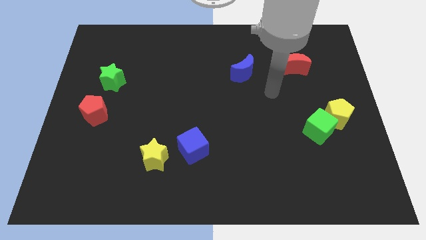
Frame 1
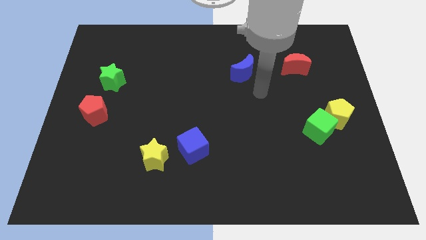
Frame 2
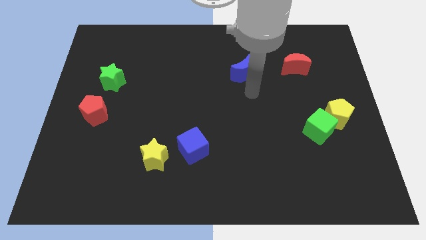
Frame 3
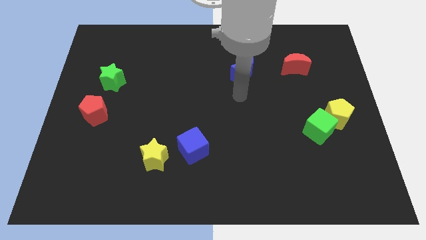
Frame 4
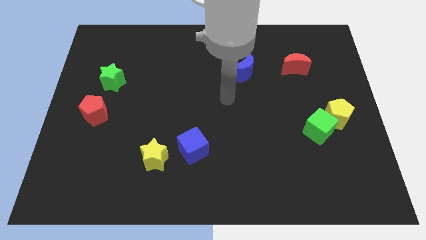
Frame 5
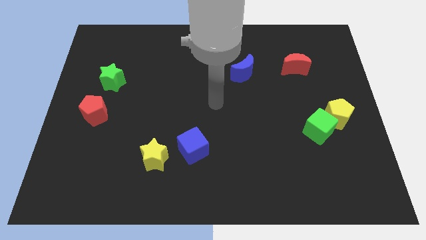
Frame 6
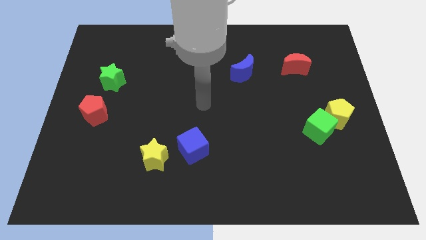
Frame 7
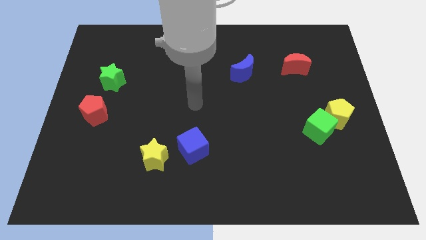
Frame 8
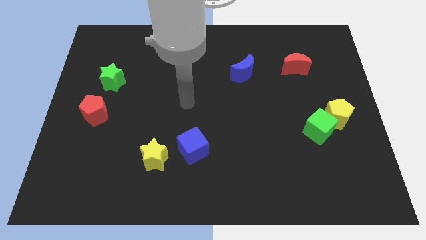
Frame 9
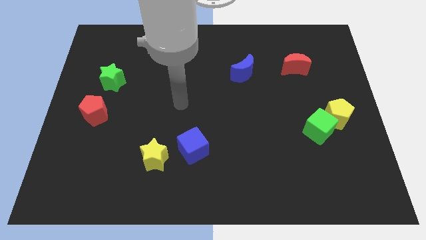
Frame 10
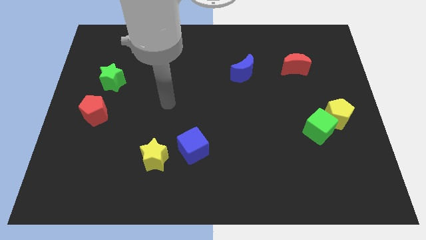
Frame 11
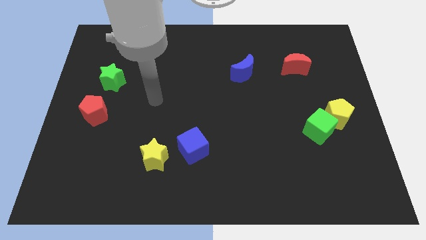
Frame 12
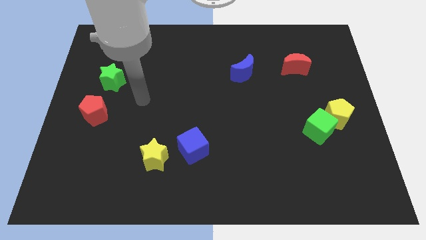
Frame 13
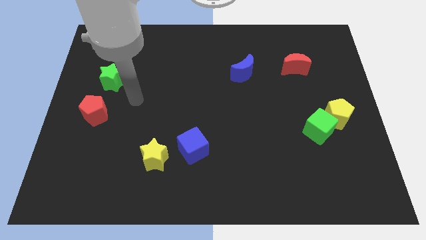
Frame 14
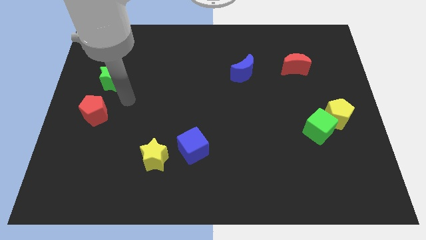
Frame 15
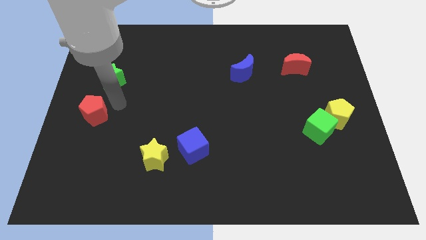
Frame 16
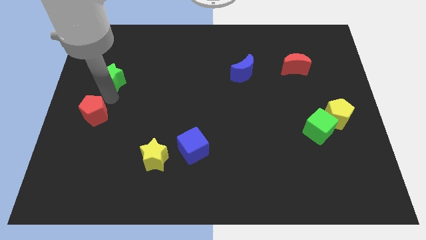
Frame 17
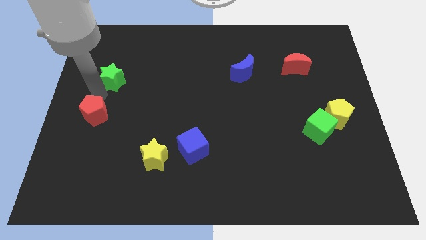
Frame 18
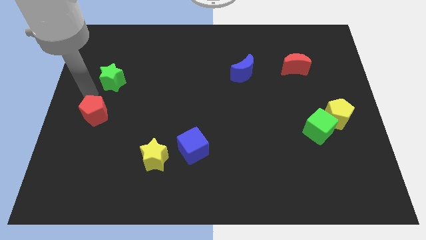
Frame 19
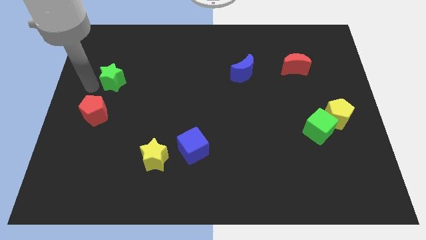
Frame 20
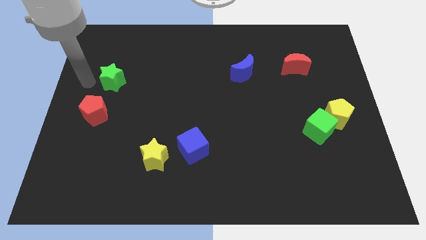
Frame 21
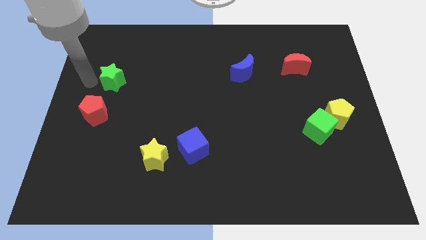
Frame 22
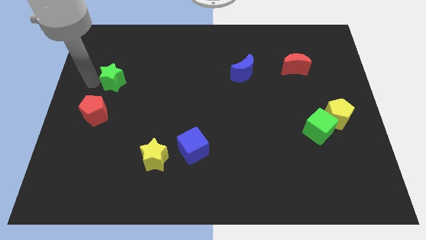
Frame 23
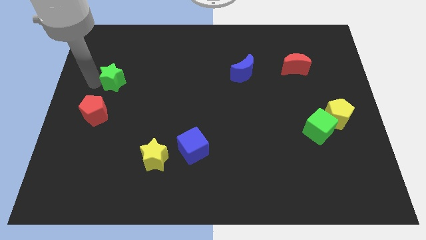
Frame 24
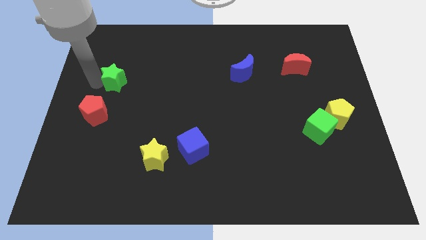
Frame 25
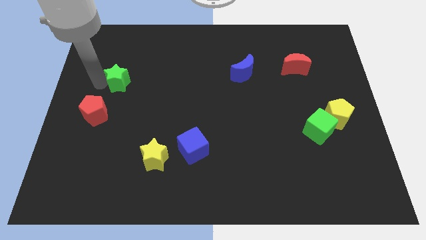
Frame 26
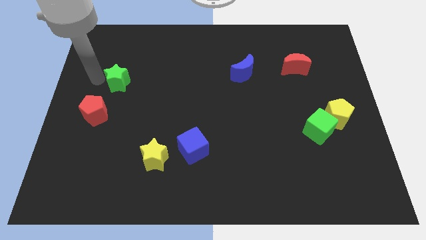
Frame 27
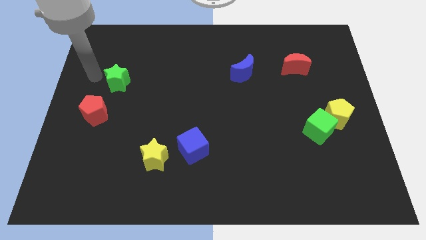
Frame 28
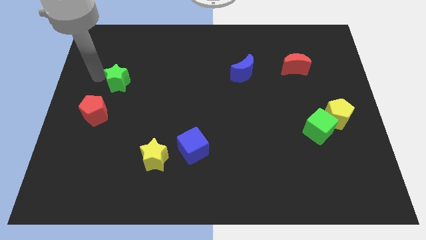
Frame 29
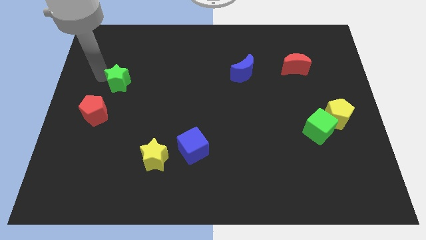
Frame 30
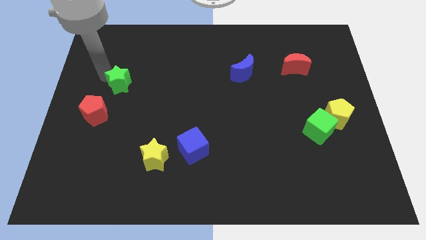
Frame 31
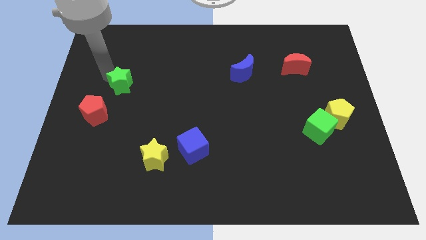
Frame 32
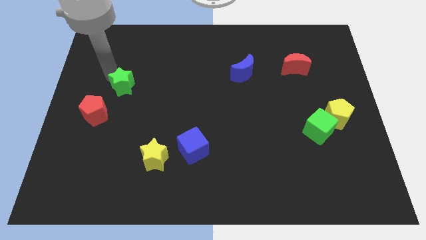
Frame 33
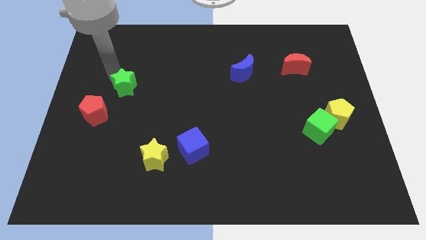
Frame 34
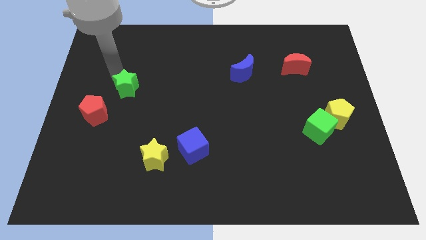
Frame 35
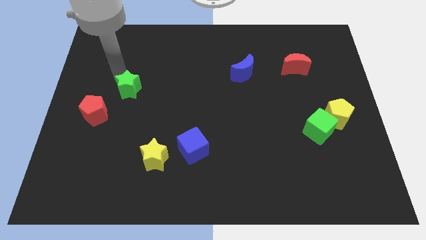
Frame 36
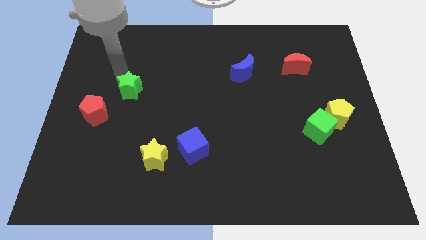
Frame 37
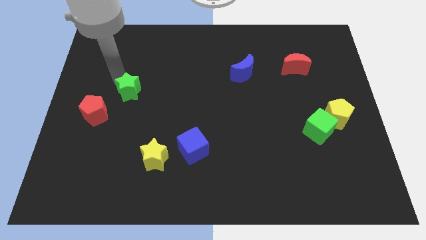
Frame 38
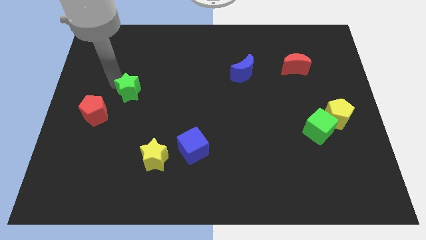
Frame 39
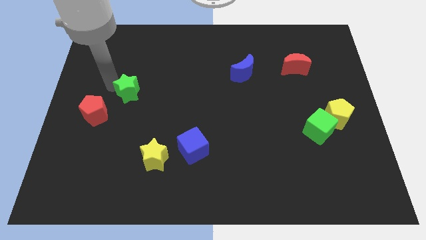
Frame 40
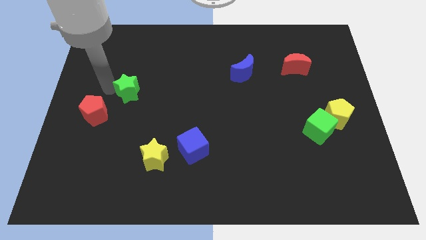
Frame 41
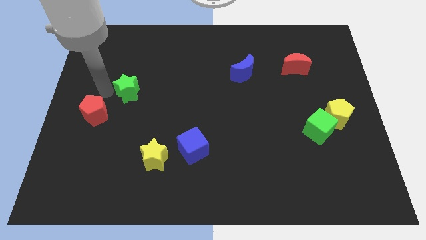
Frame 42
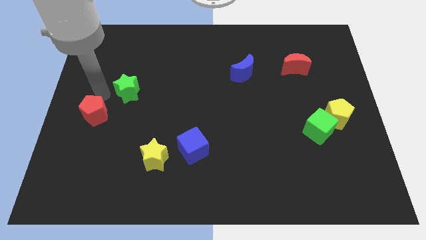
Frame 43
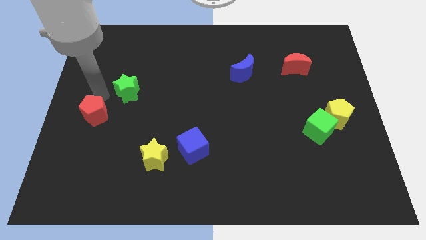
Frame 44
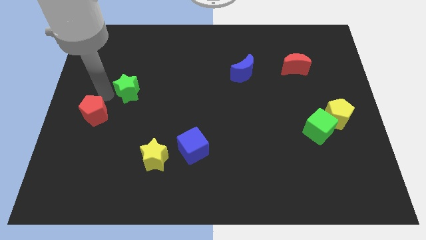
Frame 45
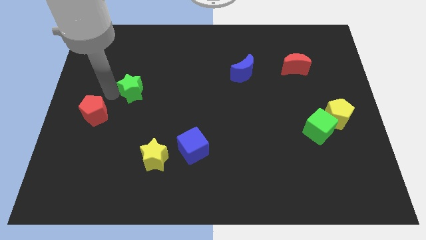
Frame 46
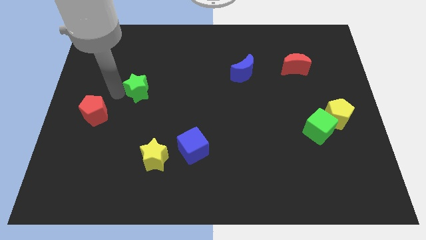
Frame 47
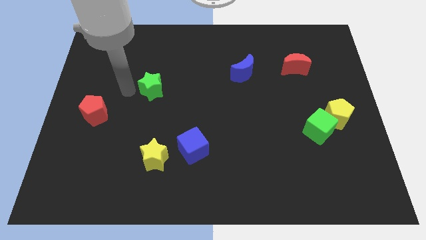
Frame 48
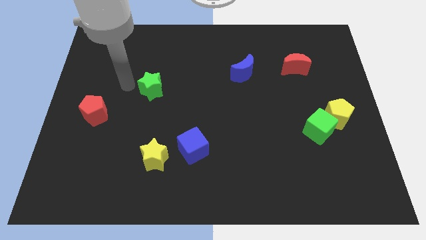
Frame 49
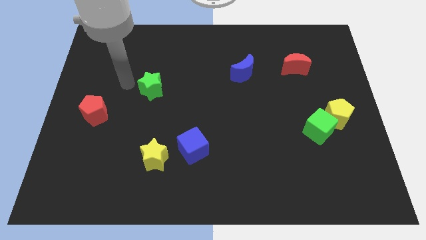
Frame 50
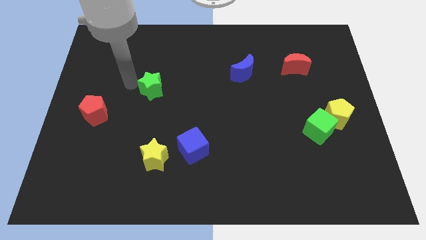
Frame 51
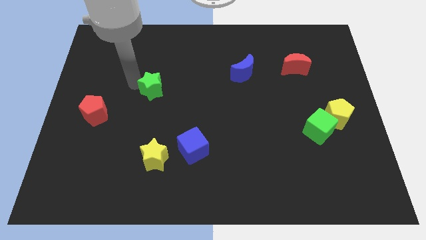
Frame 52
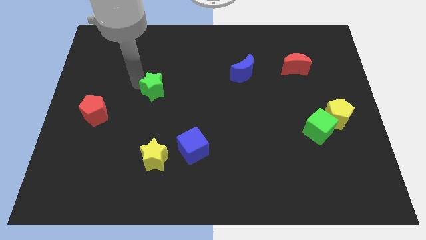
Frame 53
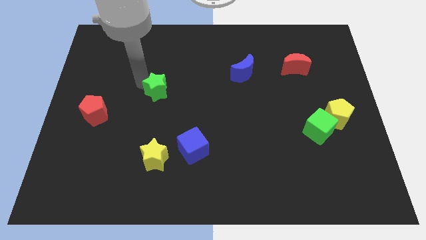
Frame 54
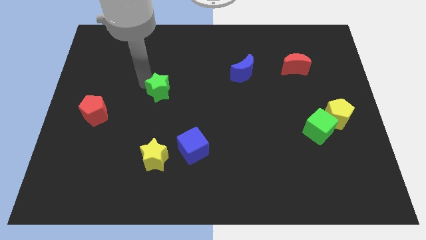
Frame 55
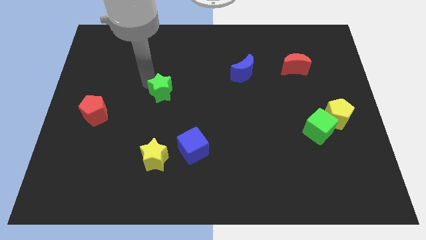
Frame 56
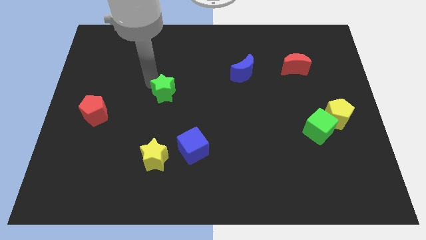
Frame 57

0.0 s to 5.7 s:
push the green star to the center of the board

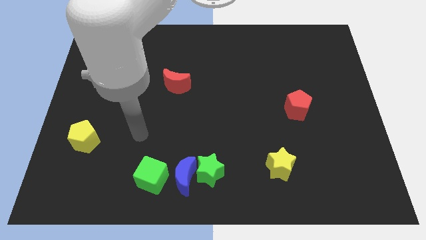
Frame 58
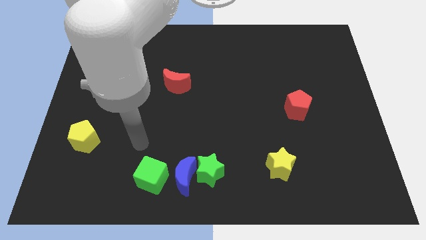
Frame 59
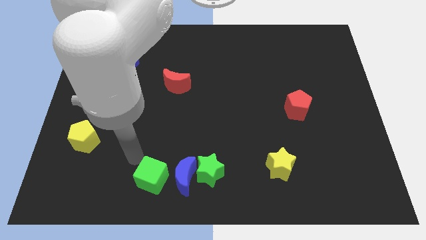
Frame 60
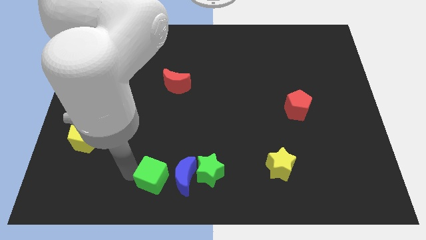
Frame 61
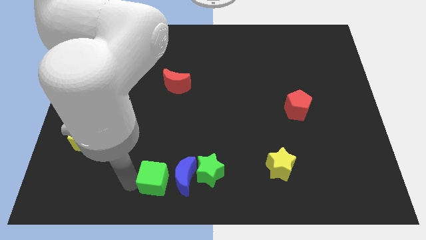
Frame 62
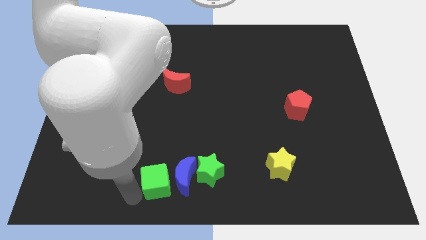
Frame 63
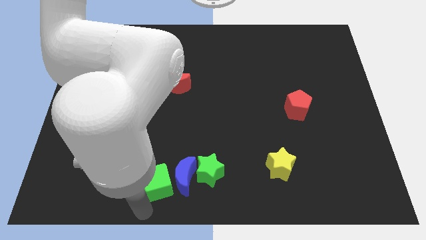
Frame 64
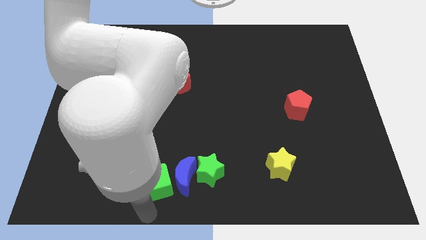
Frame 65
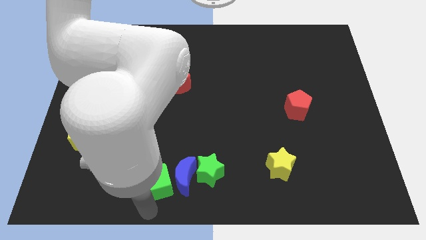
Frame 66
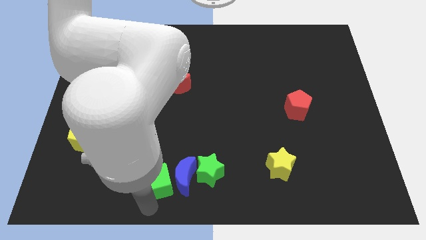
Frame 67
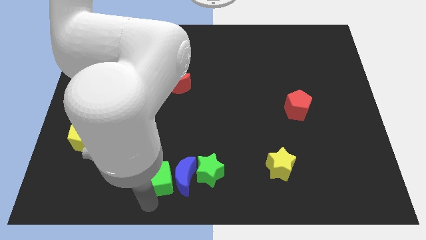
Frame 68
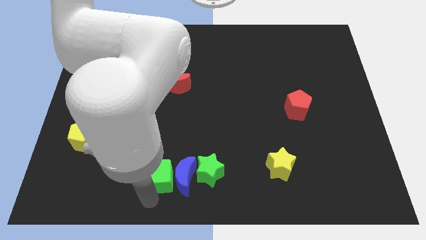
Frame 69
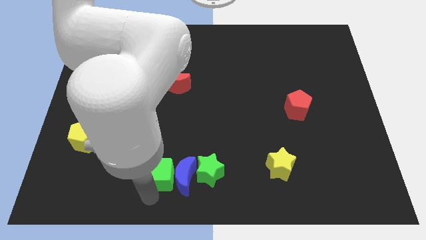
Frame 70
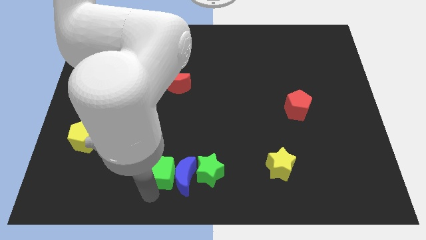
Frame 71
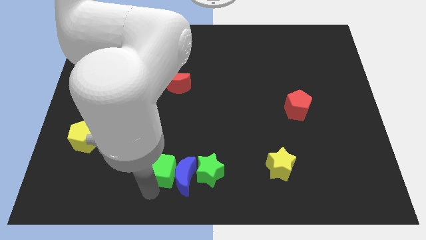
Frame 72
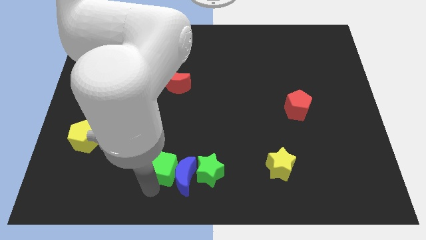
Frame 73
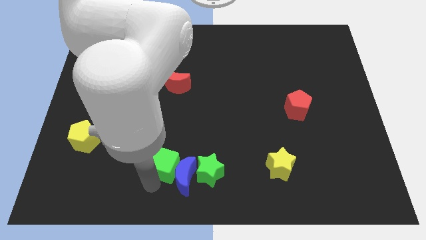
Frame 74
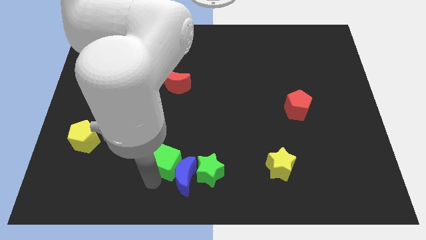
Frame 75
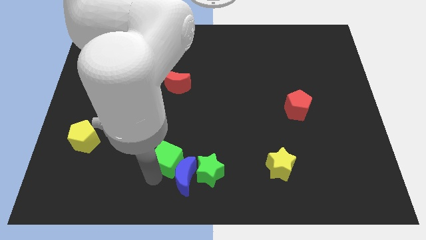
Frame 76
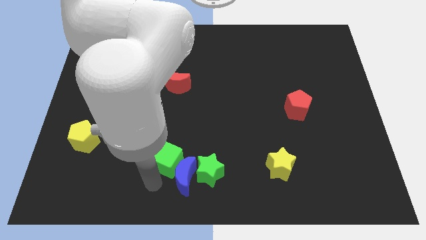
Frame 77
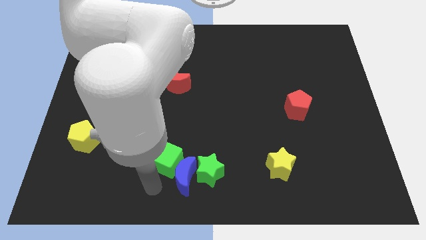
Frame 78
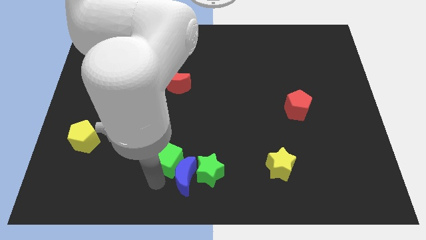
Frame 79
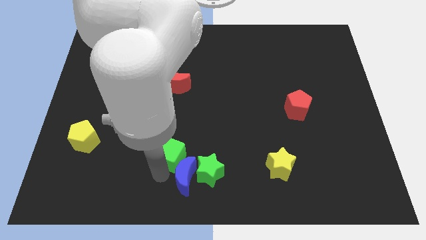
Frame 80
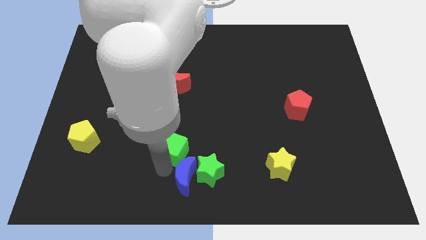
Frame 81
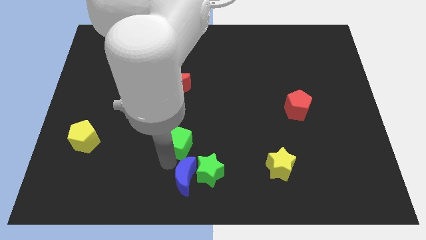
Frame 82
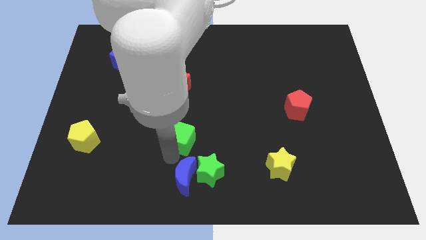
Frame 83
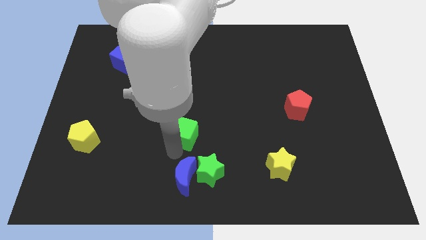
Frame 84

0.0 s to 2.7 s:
push the green cube to the center
